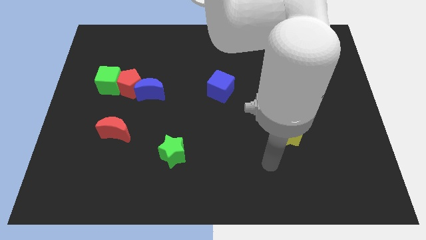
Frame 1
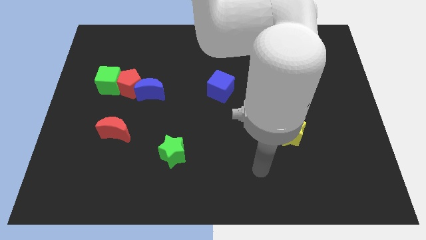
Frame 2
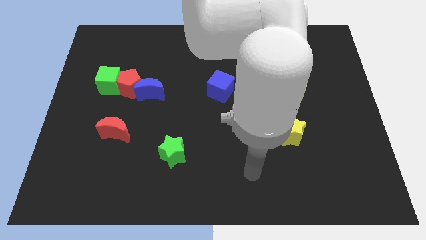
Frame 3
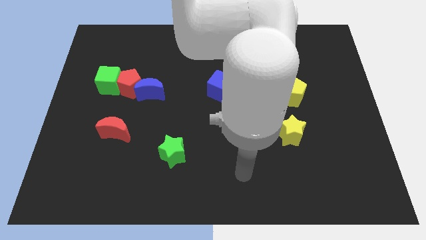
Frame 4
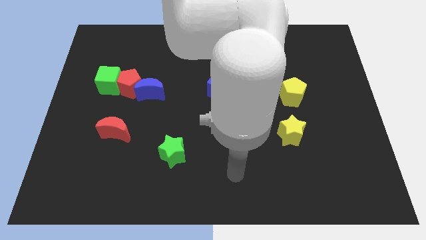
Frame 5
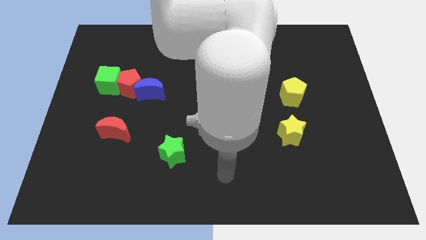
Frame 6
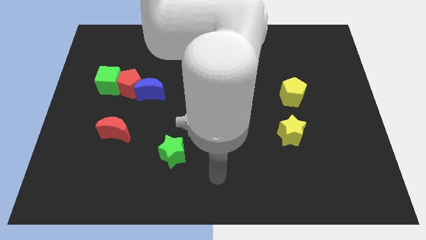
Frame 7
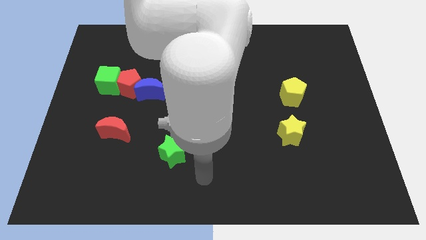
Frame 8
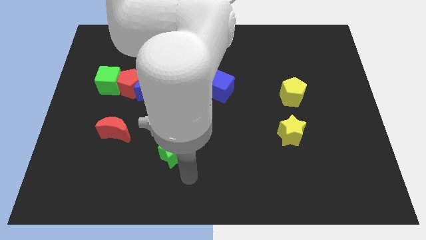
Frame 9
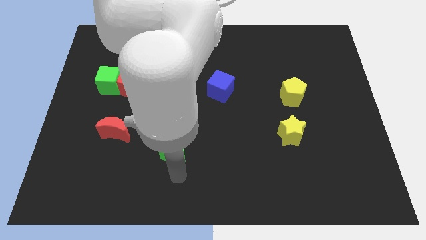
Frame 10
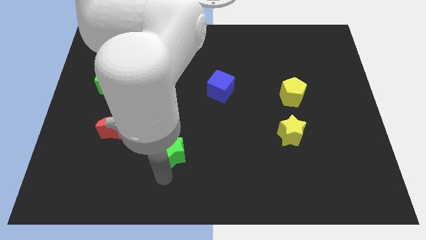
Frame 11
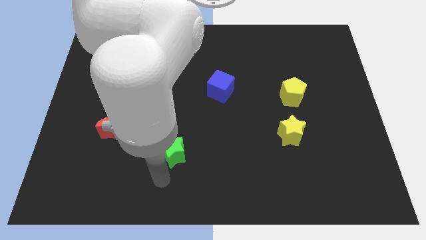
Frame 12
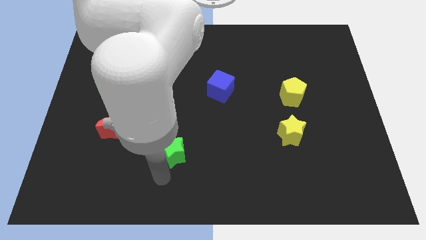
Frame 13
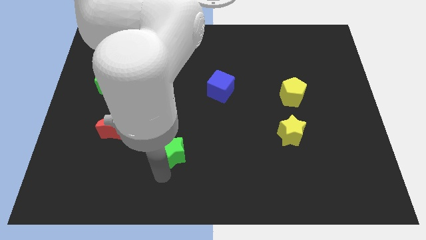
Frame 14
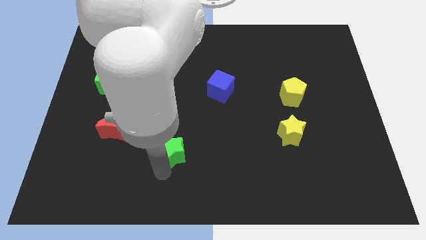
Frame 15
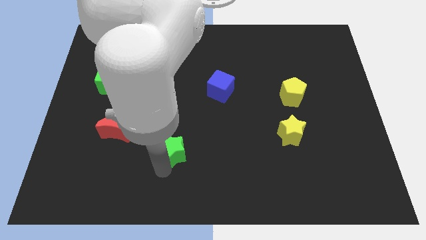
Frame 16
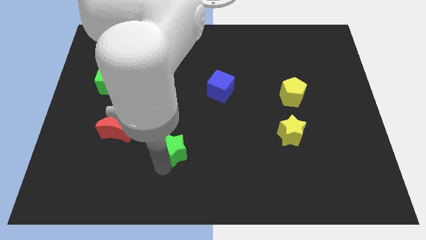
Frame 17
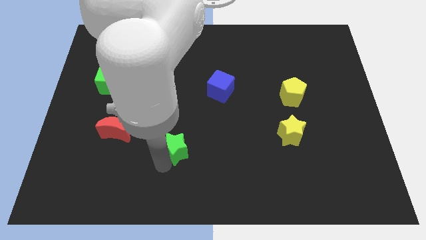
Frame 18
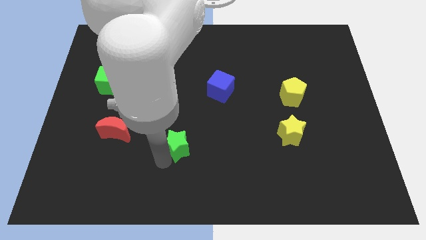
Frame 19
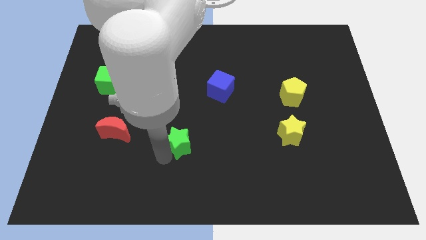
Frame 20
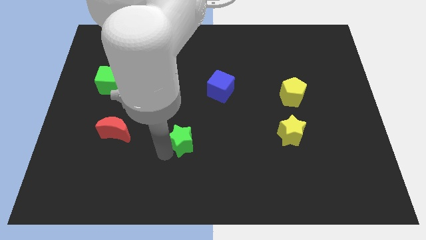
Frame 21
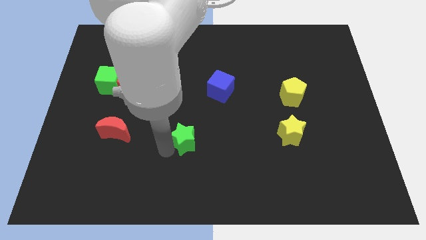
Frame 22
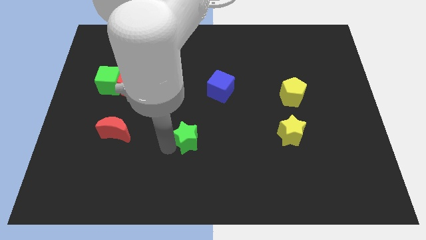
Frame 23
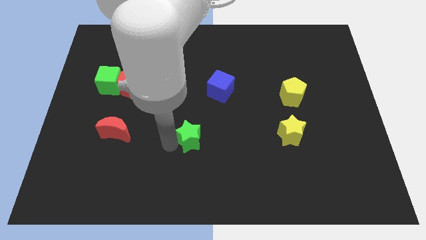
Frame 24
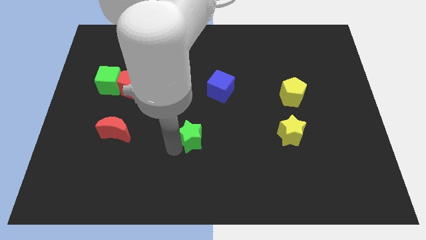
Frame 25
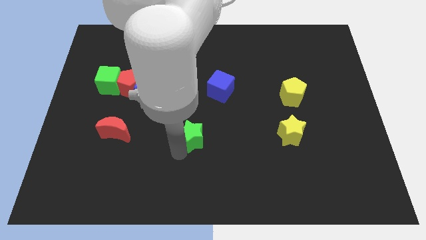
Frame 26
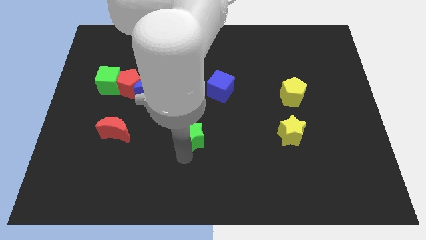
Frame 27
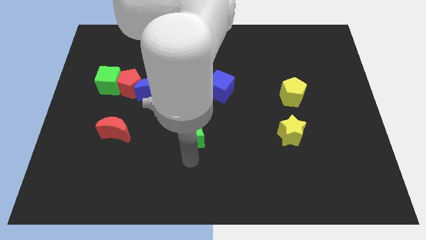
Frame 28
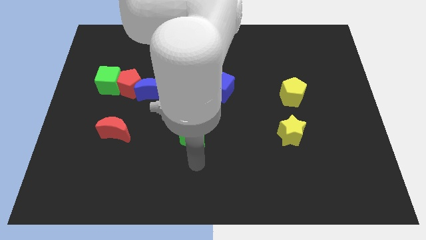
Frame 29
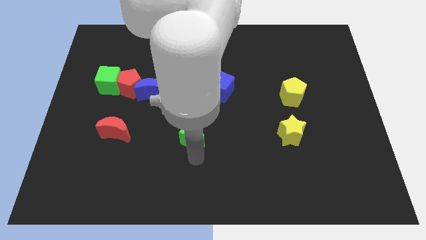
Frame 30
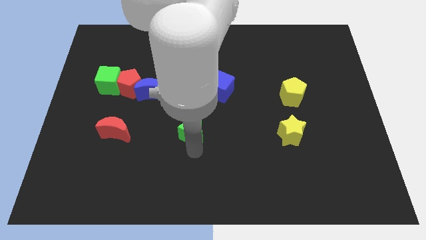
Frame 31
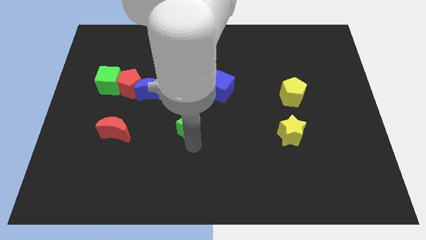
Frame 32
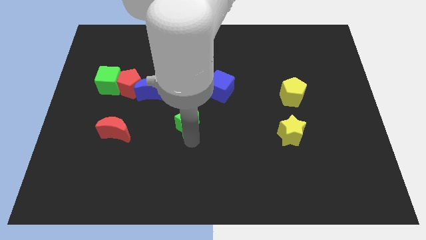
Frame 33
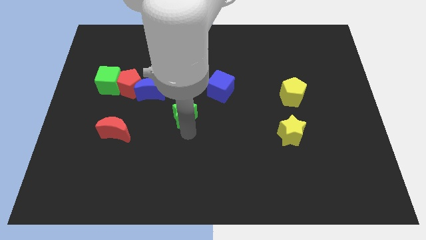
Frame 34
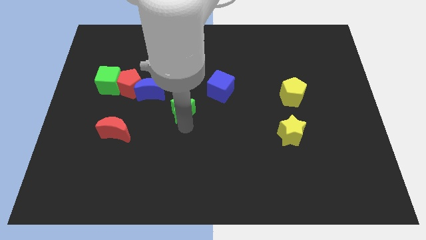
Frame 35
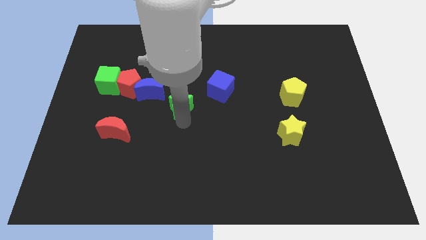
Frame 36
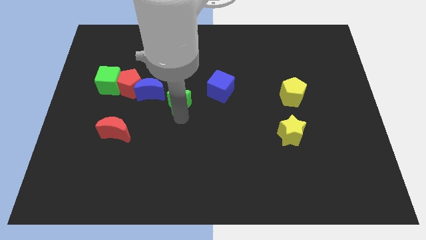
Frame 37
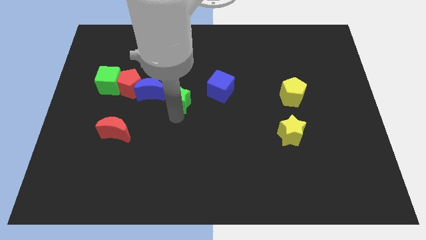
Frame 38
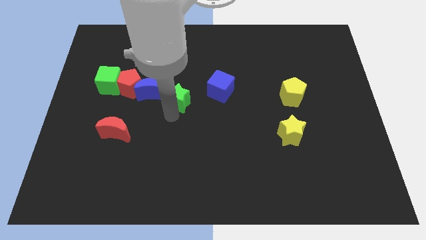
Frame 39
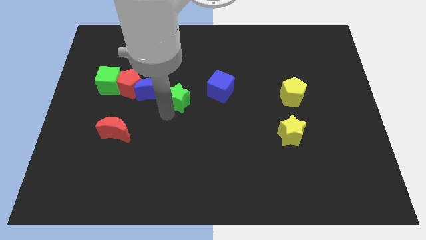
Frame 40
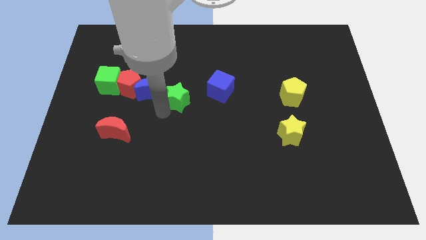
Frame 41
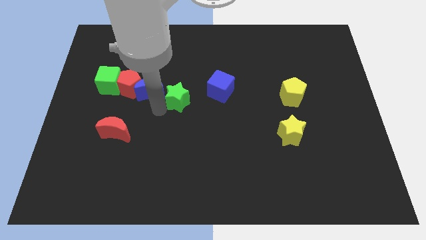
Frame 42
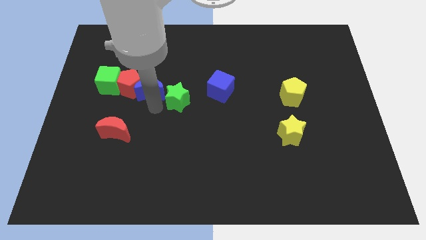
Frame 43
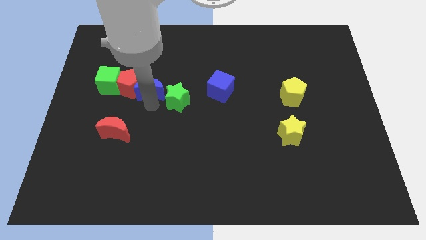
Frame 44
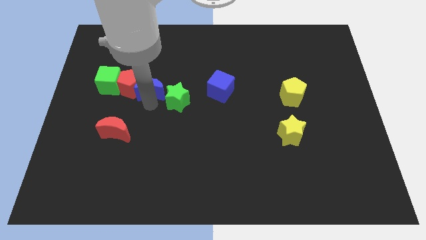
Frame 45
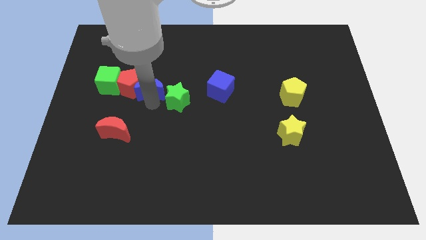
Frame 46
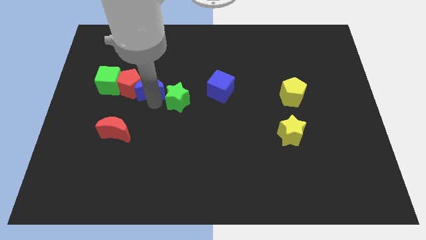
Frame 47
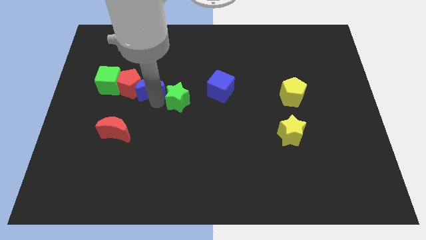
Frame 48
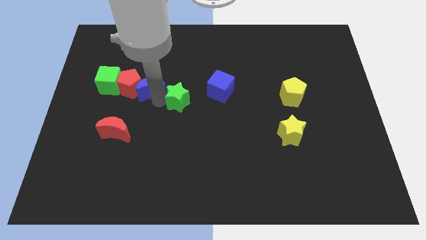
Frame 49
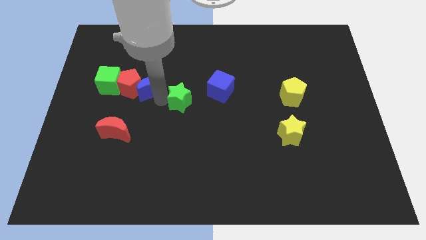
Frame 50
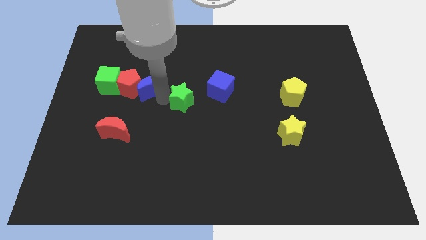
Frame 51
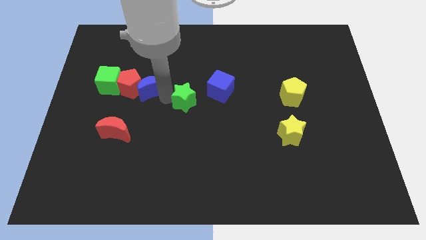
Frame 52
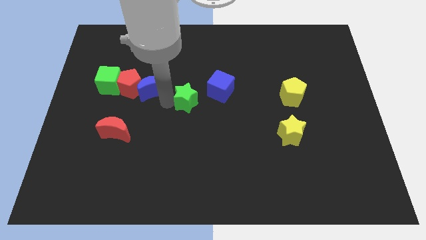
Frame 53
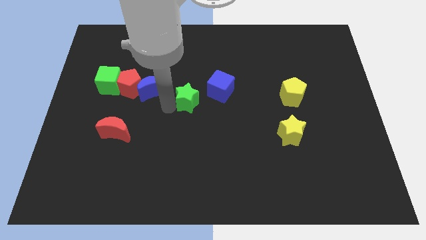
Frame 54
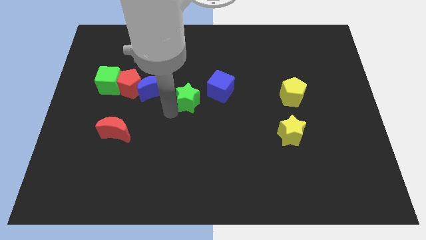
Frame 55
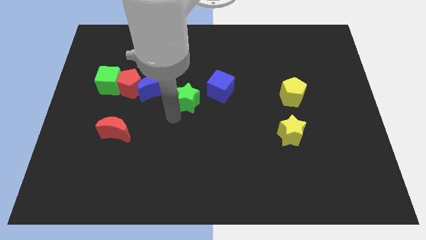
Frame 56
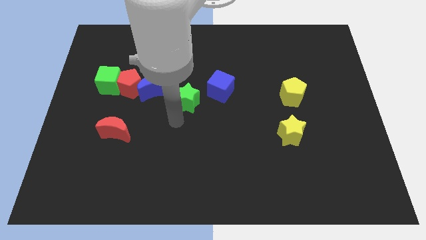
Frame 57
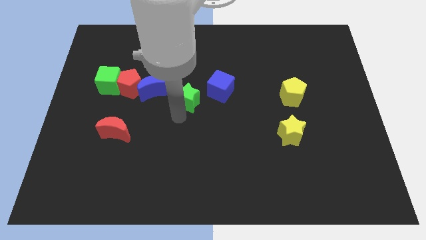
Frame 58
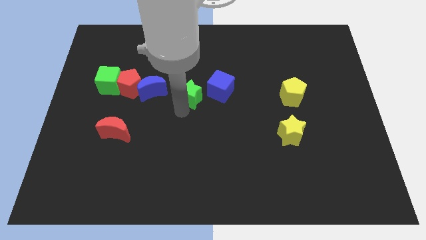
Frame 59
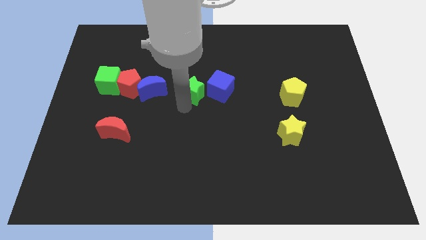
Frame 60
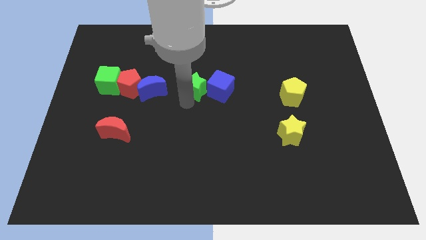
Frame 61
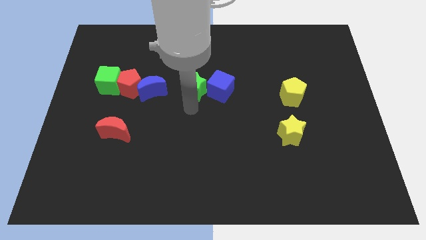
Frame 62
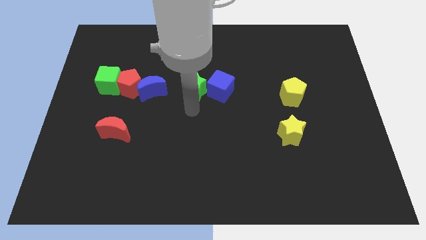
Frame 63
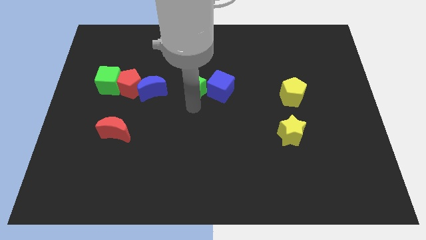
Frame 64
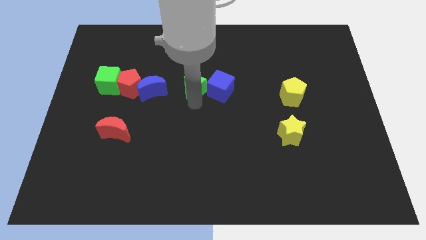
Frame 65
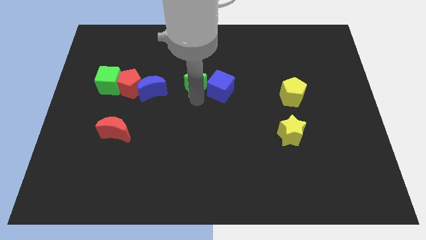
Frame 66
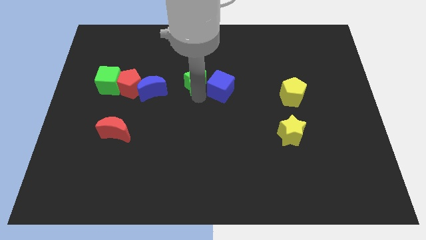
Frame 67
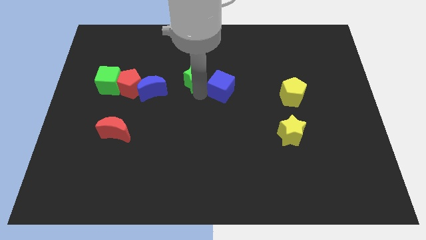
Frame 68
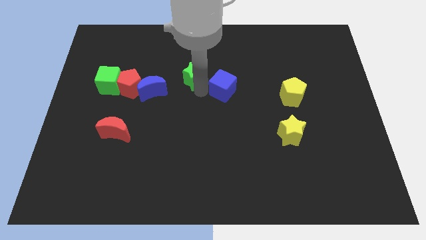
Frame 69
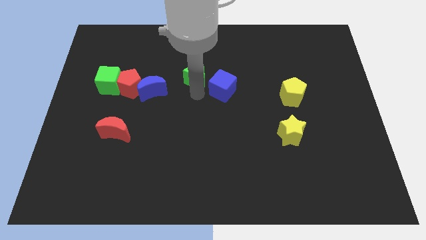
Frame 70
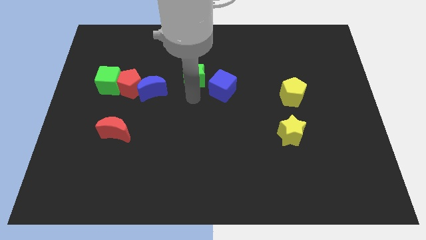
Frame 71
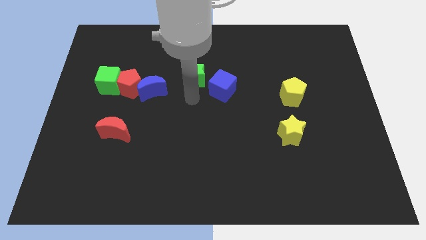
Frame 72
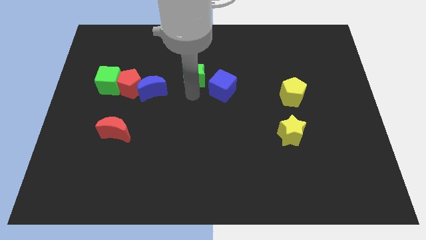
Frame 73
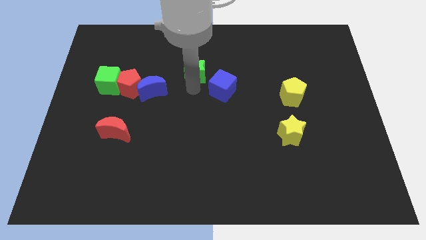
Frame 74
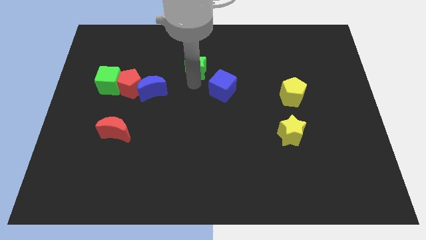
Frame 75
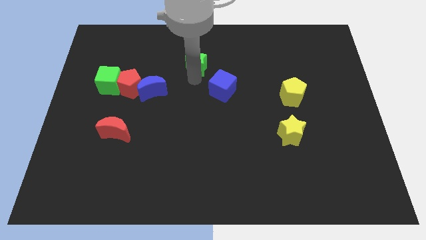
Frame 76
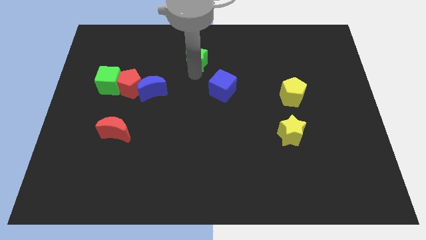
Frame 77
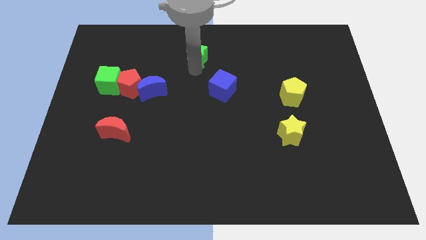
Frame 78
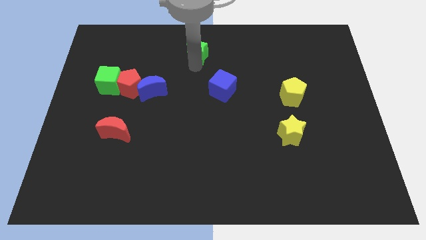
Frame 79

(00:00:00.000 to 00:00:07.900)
push the green star to the top side
